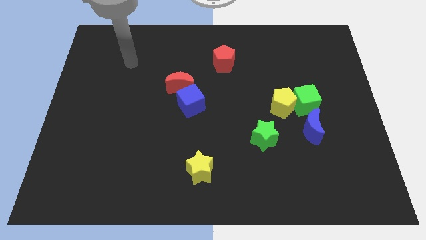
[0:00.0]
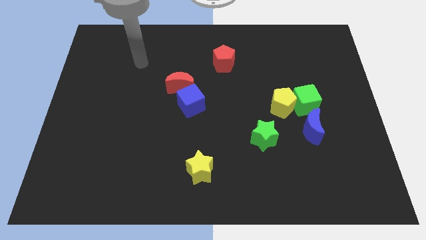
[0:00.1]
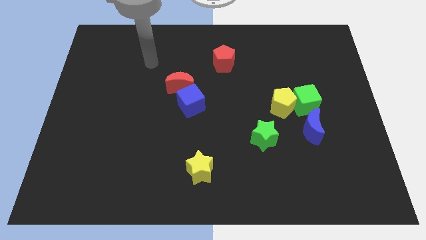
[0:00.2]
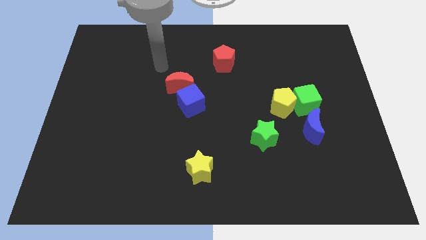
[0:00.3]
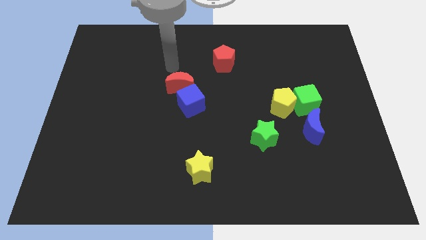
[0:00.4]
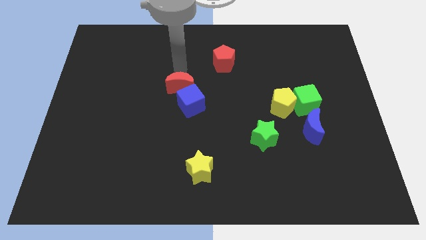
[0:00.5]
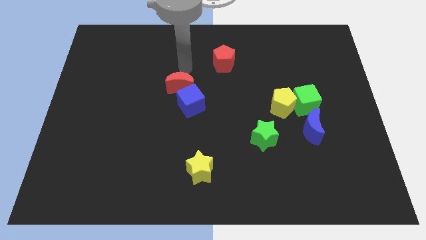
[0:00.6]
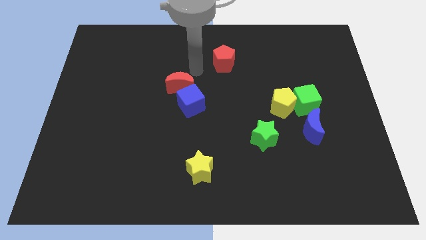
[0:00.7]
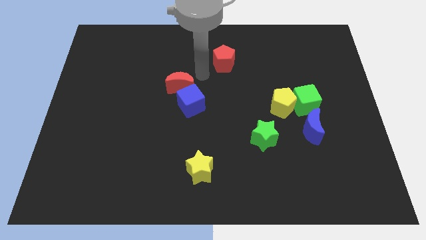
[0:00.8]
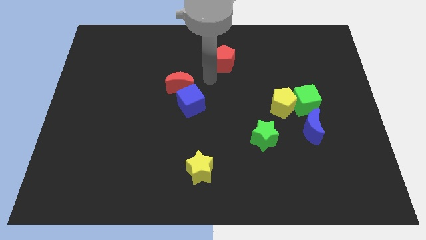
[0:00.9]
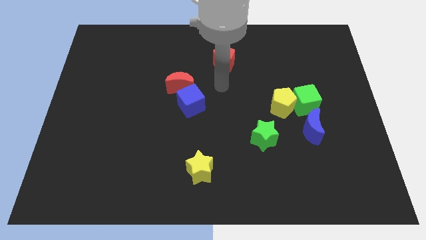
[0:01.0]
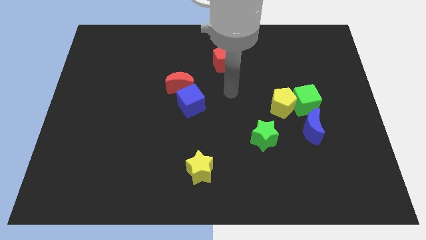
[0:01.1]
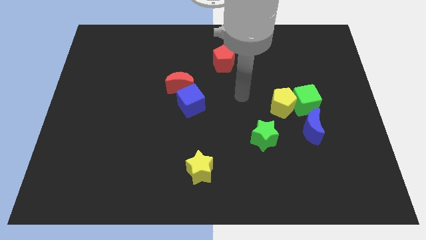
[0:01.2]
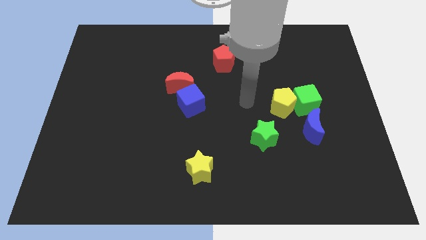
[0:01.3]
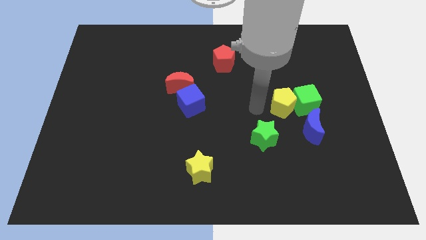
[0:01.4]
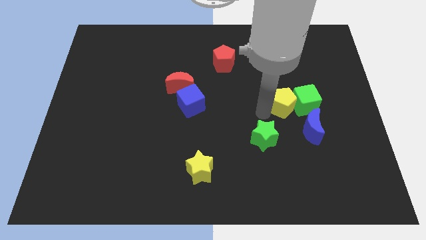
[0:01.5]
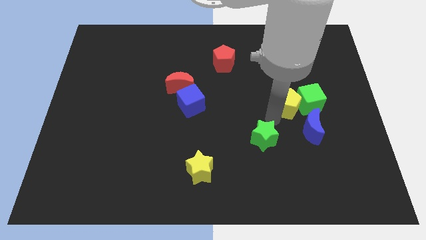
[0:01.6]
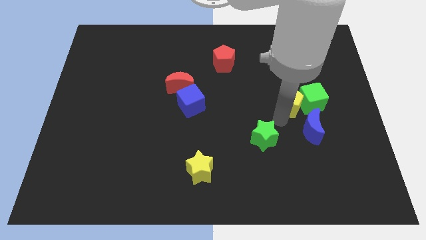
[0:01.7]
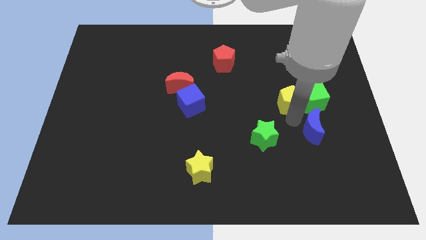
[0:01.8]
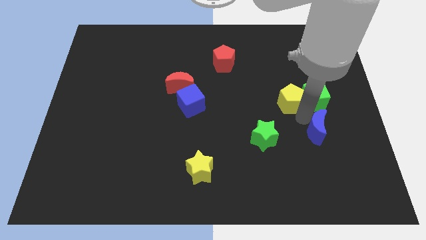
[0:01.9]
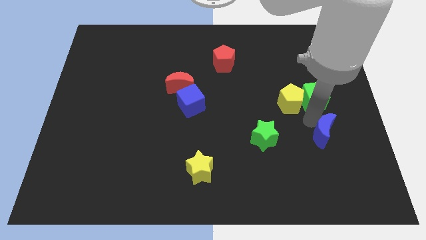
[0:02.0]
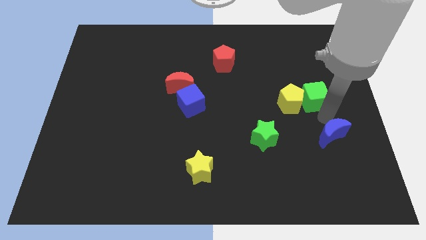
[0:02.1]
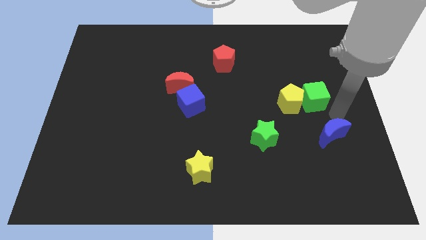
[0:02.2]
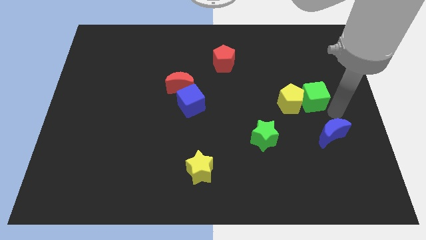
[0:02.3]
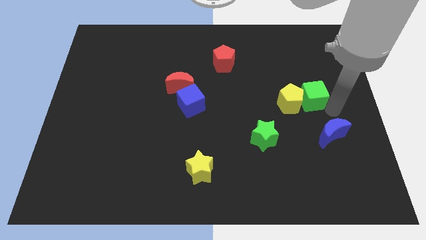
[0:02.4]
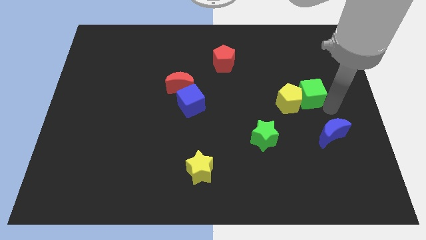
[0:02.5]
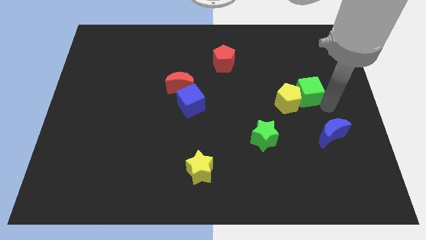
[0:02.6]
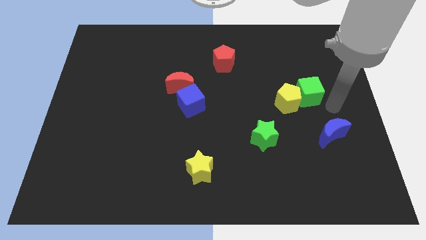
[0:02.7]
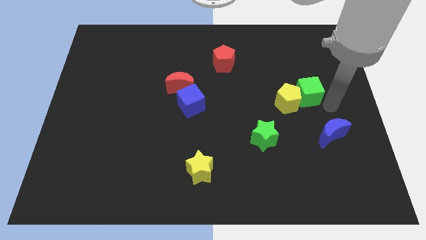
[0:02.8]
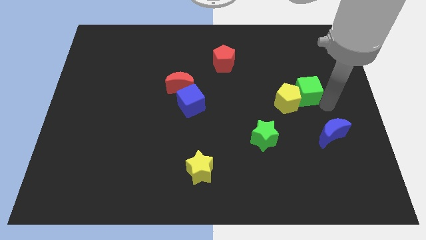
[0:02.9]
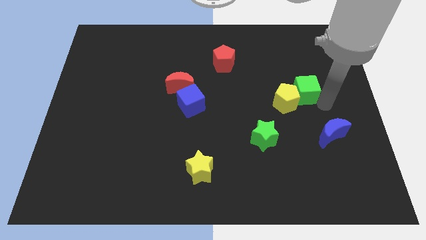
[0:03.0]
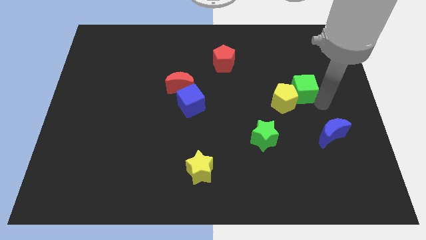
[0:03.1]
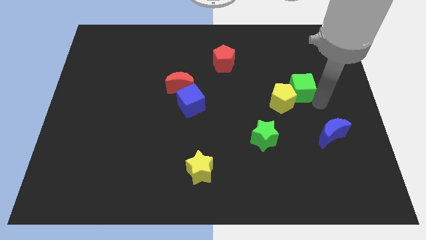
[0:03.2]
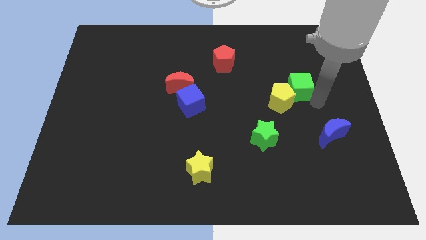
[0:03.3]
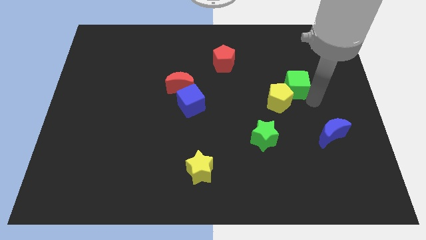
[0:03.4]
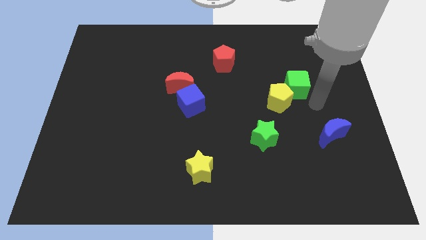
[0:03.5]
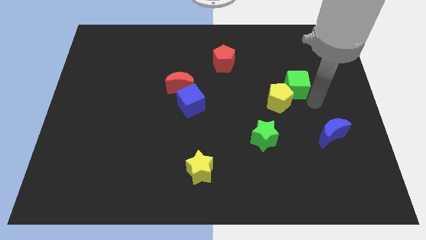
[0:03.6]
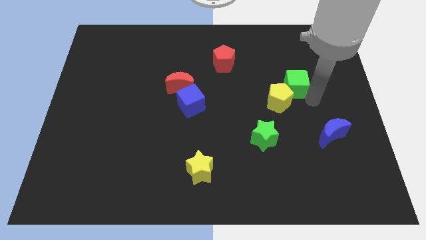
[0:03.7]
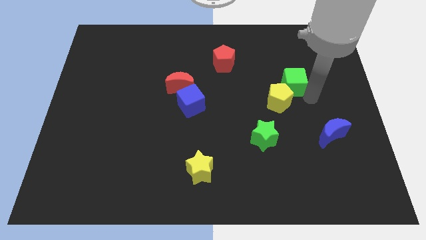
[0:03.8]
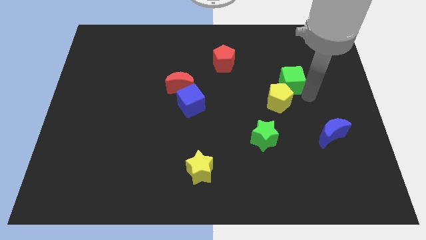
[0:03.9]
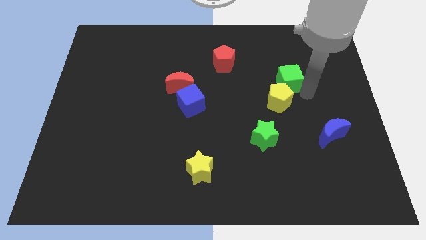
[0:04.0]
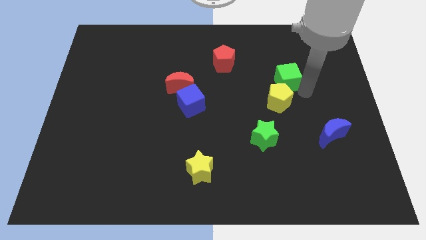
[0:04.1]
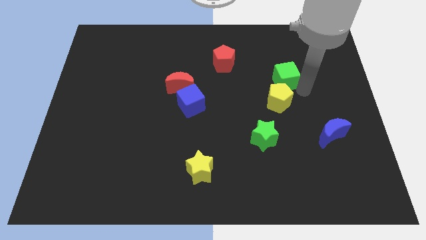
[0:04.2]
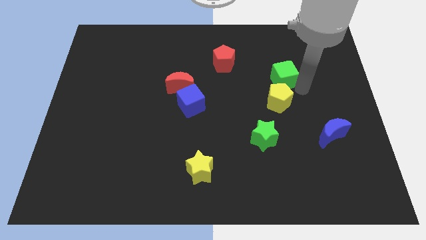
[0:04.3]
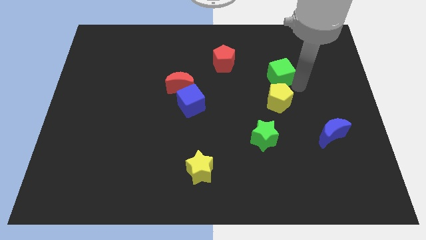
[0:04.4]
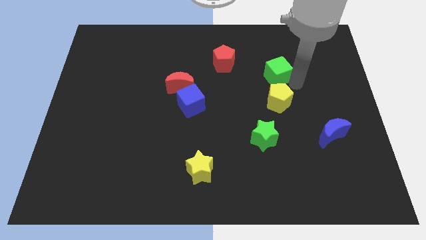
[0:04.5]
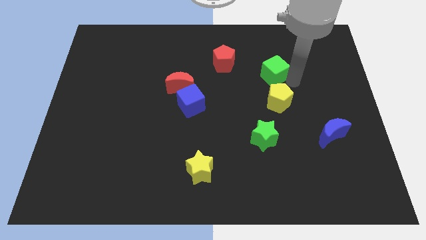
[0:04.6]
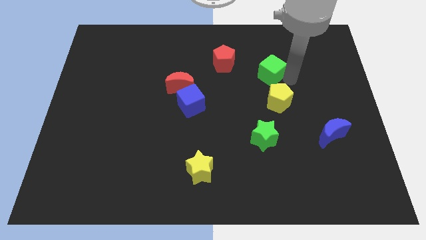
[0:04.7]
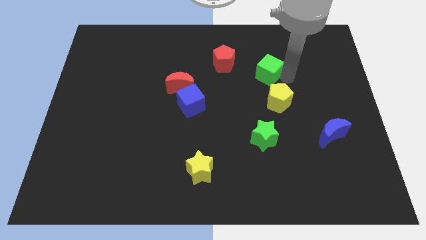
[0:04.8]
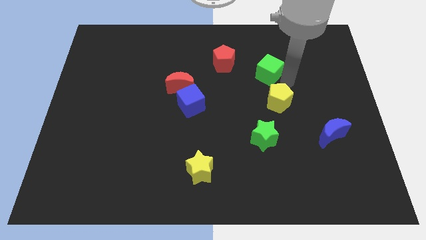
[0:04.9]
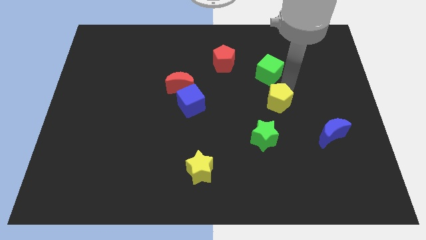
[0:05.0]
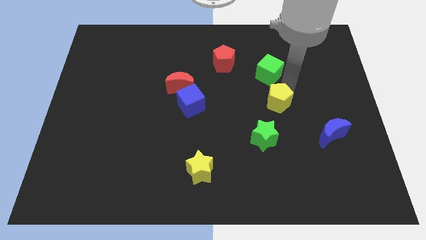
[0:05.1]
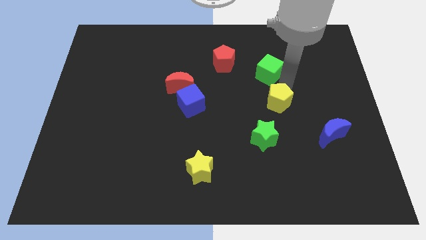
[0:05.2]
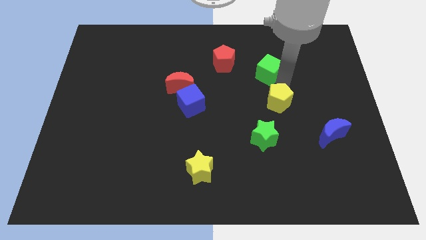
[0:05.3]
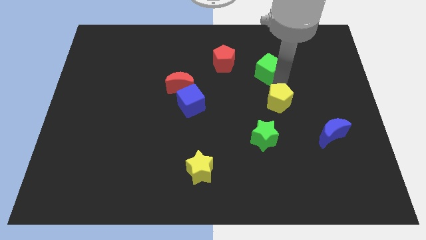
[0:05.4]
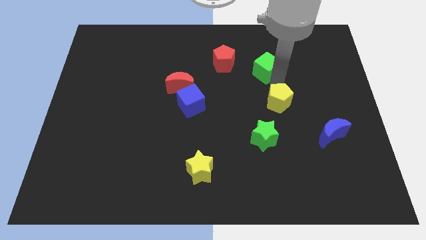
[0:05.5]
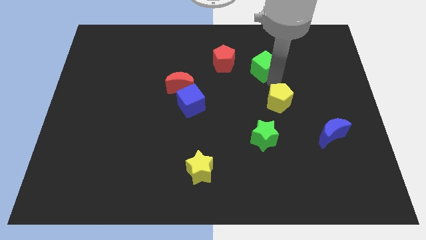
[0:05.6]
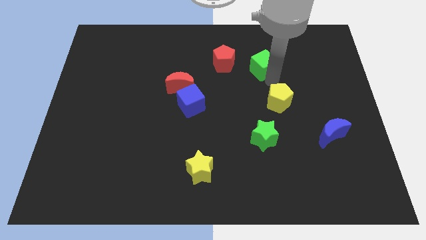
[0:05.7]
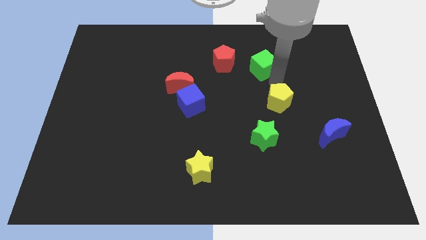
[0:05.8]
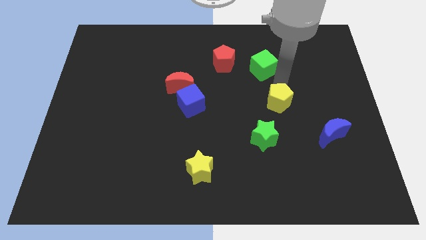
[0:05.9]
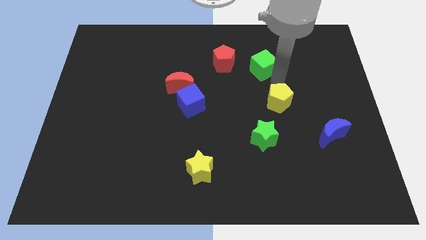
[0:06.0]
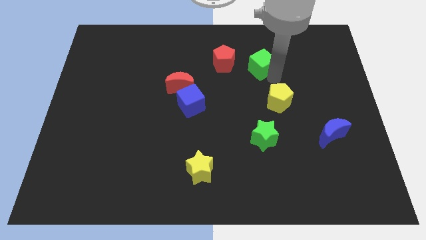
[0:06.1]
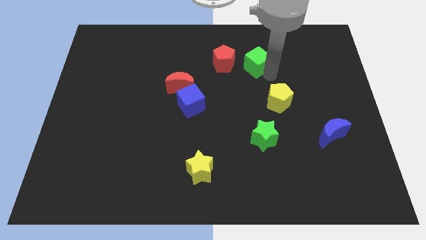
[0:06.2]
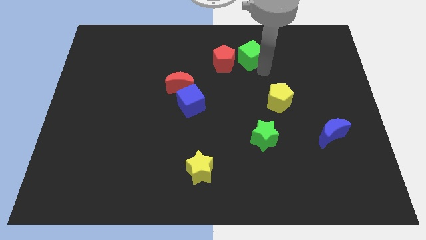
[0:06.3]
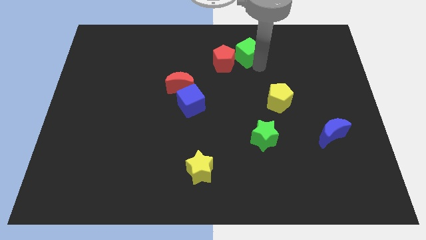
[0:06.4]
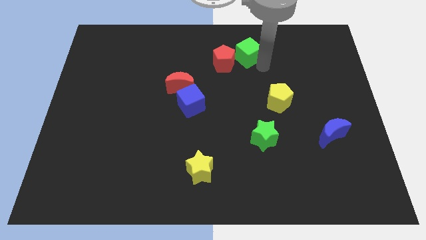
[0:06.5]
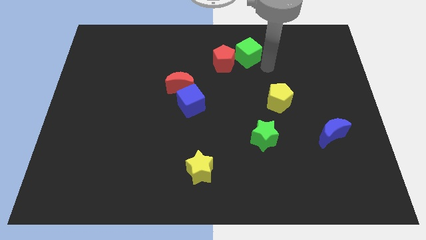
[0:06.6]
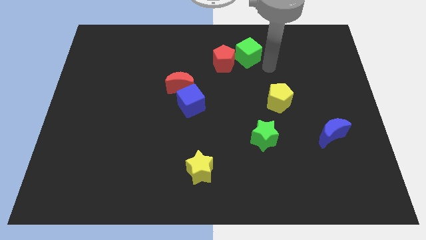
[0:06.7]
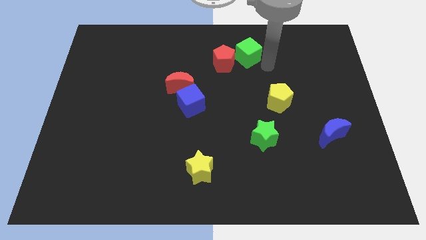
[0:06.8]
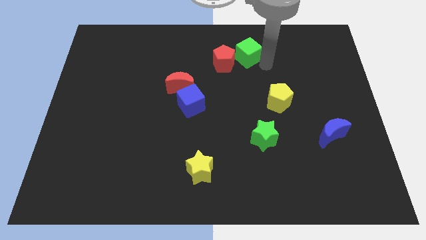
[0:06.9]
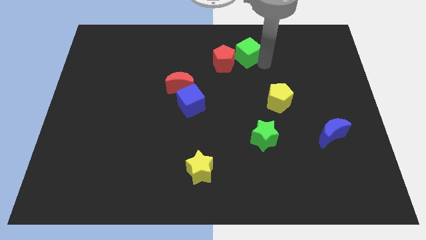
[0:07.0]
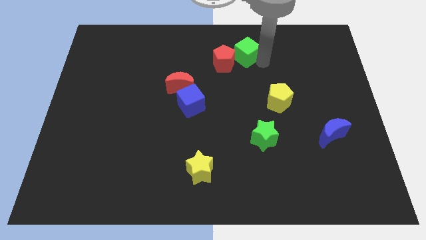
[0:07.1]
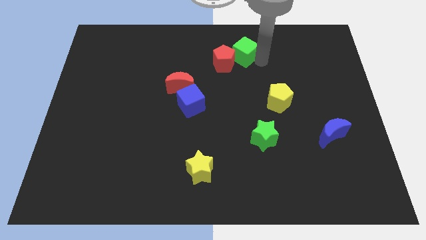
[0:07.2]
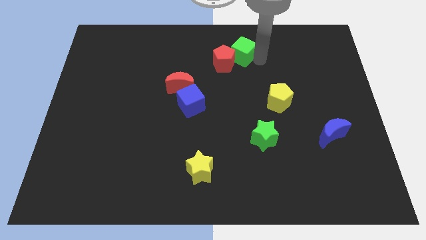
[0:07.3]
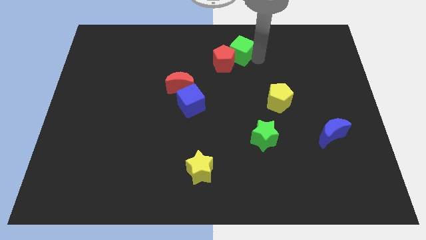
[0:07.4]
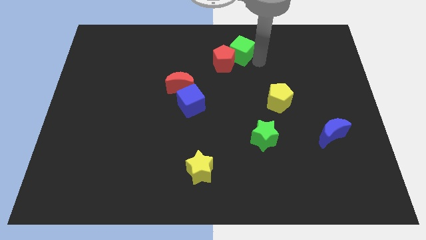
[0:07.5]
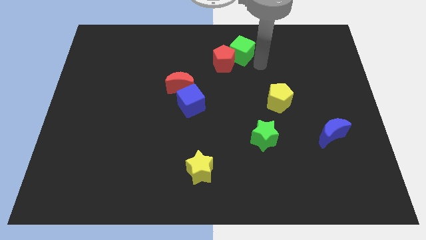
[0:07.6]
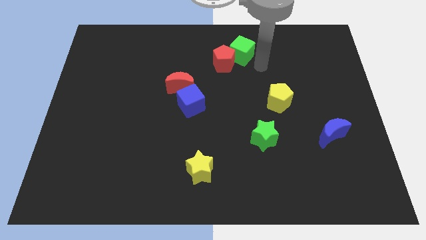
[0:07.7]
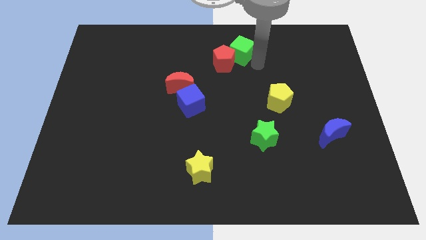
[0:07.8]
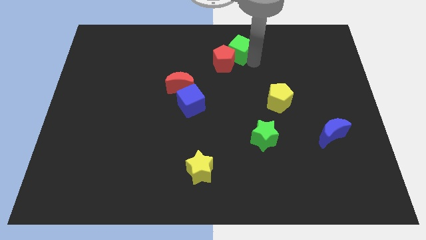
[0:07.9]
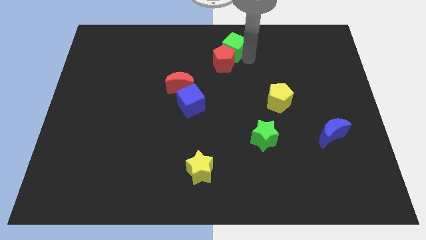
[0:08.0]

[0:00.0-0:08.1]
put the green cube to the towards your base
